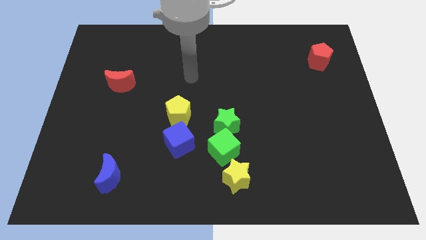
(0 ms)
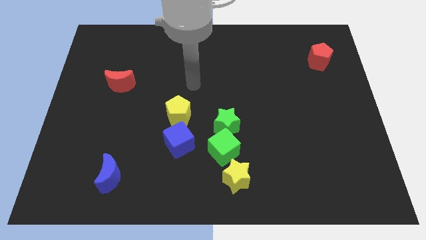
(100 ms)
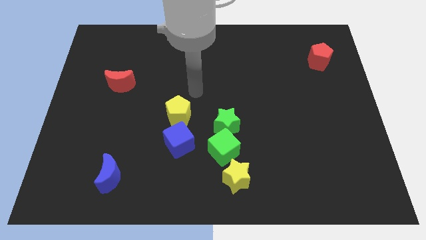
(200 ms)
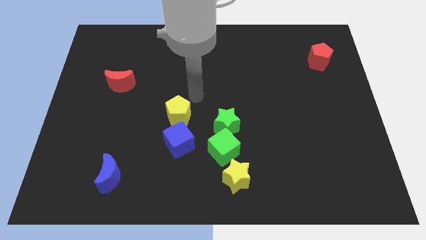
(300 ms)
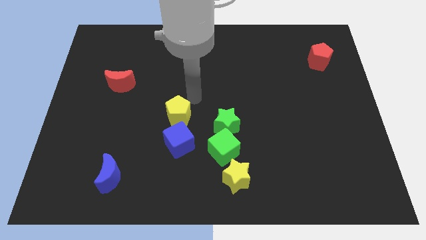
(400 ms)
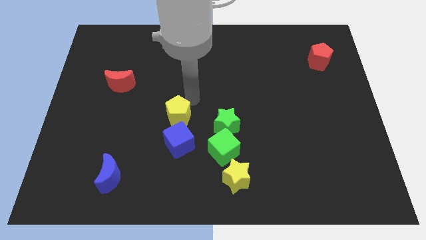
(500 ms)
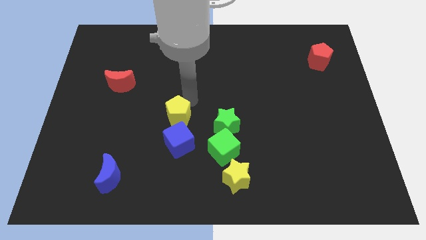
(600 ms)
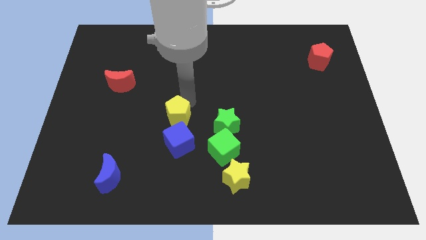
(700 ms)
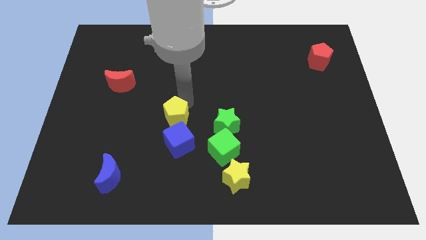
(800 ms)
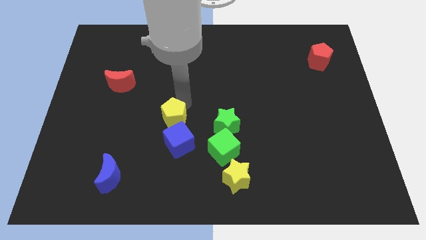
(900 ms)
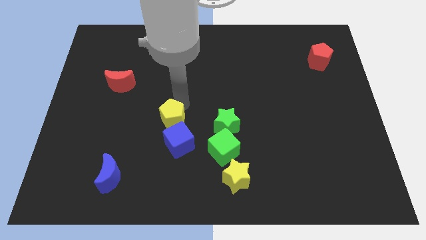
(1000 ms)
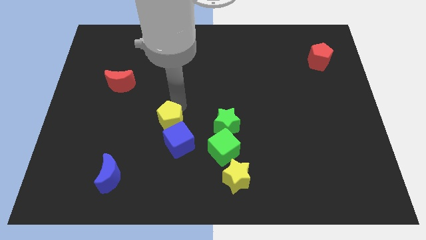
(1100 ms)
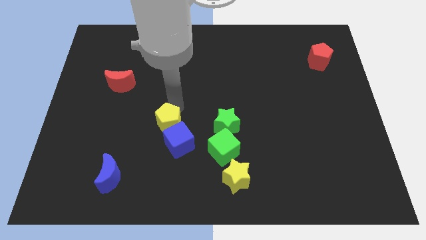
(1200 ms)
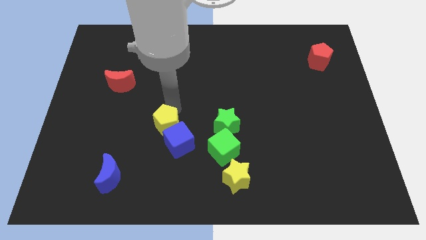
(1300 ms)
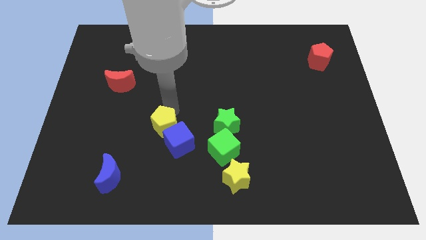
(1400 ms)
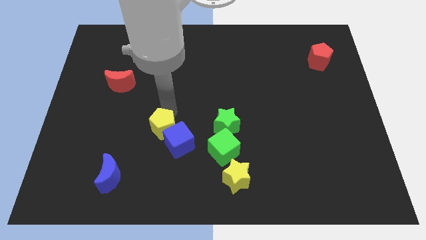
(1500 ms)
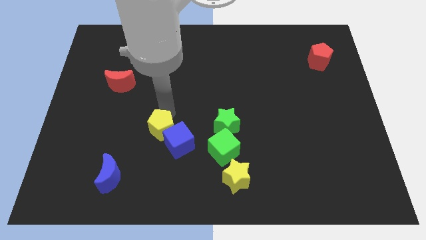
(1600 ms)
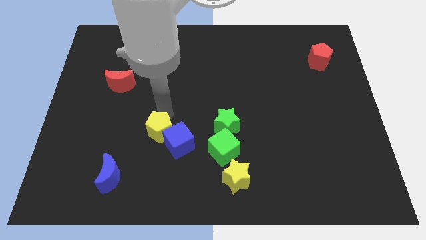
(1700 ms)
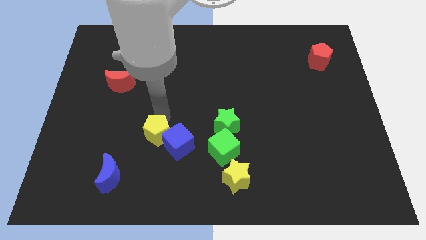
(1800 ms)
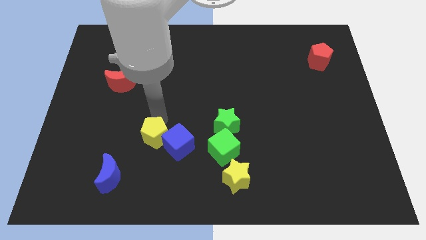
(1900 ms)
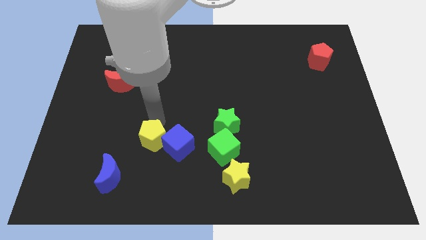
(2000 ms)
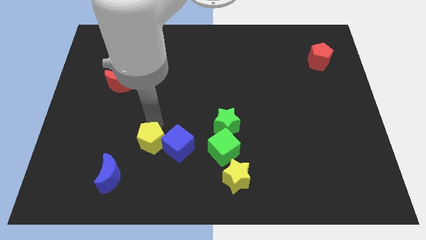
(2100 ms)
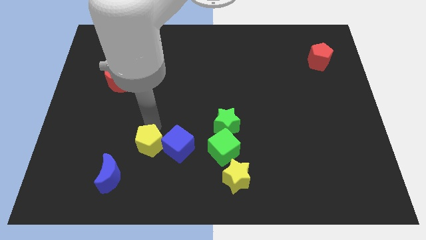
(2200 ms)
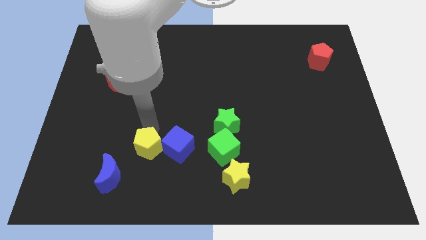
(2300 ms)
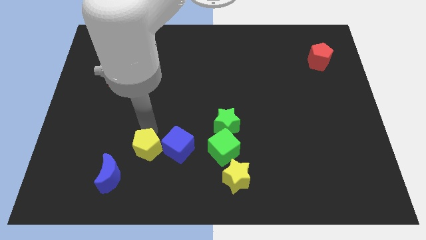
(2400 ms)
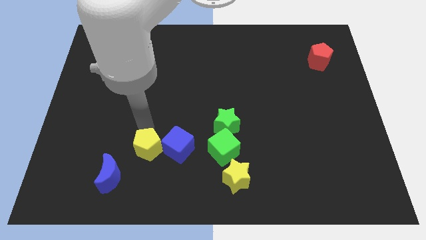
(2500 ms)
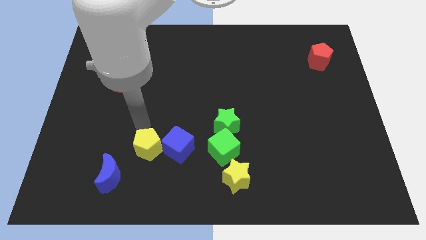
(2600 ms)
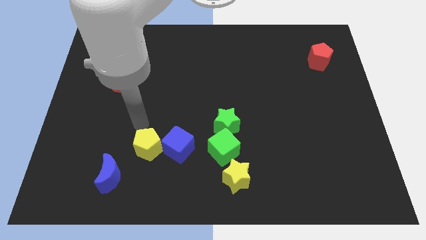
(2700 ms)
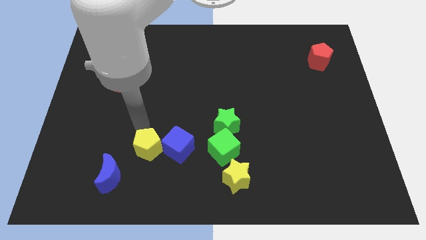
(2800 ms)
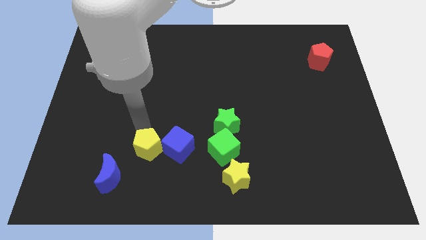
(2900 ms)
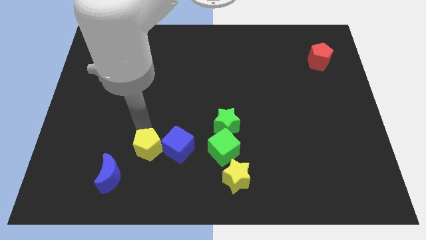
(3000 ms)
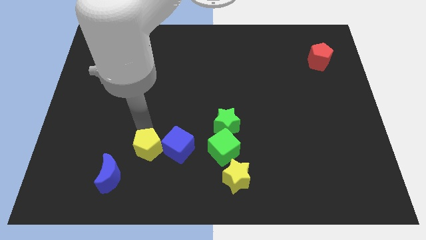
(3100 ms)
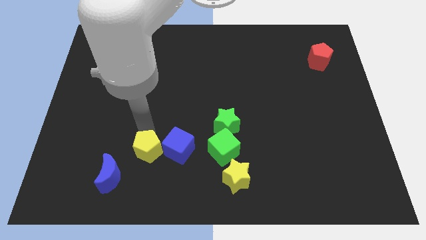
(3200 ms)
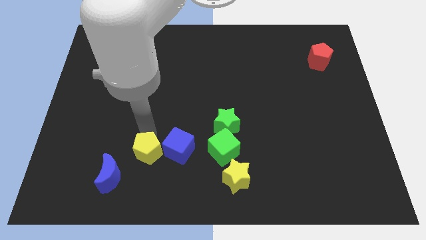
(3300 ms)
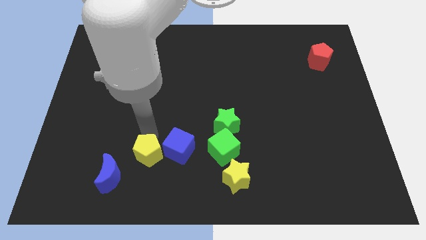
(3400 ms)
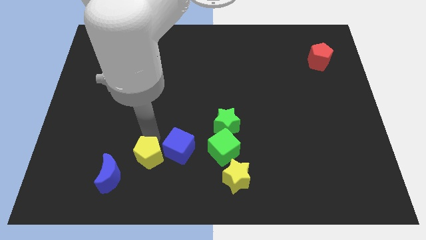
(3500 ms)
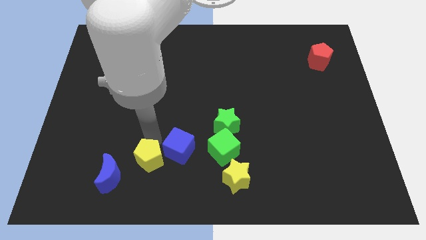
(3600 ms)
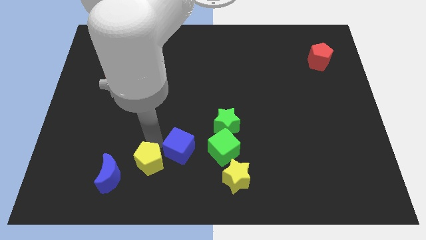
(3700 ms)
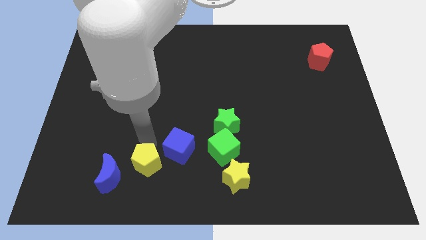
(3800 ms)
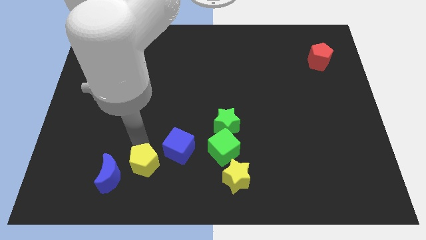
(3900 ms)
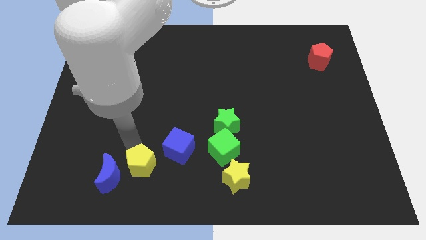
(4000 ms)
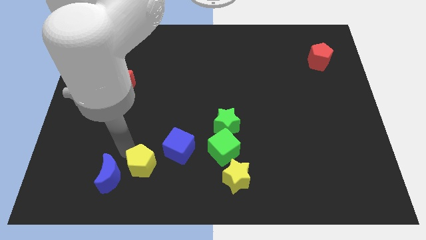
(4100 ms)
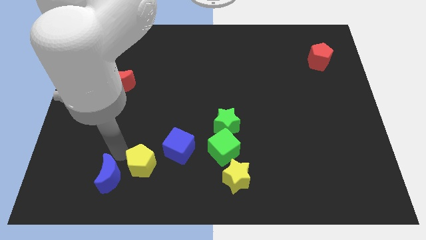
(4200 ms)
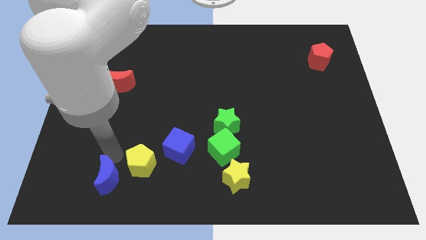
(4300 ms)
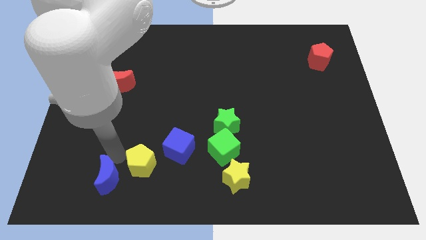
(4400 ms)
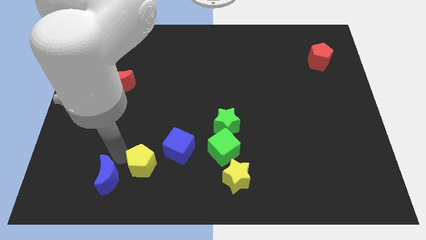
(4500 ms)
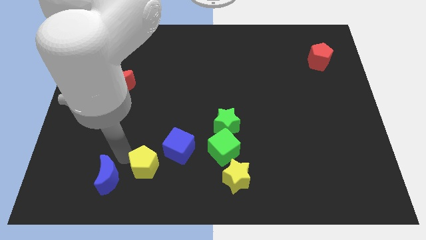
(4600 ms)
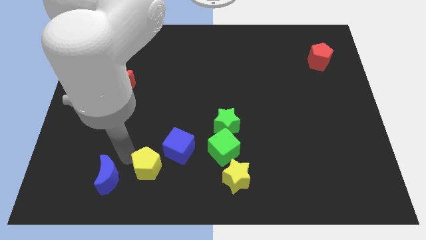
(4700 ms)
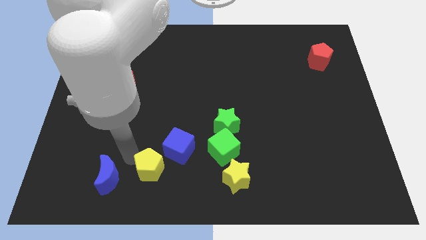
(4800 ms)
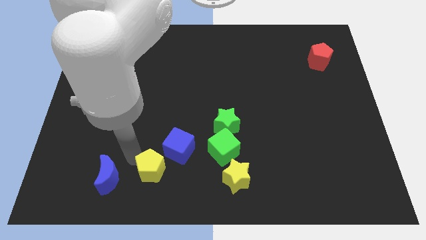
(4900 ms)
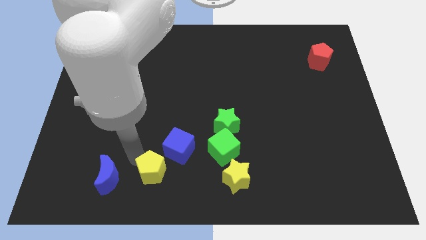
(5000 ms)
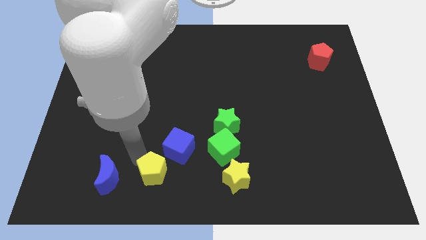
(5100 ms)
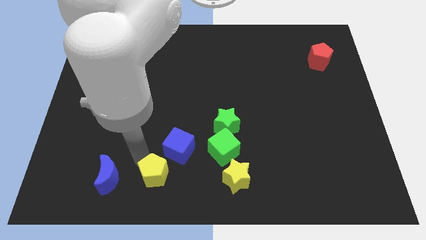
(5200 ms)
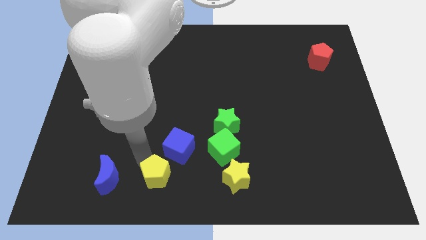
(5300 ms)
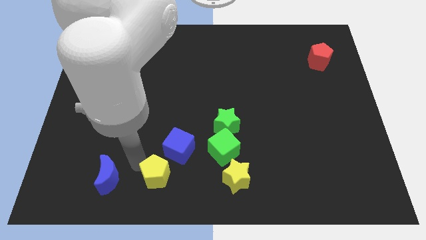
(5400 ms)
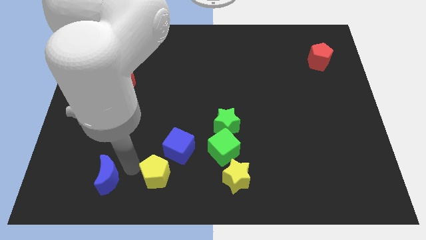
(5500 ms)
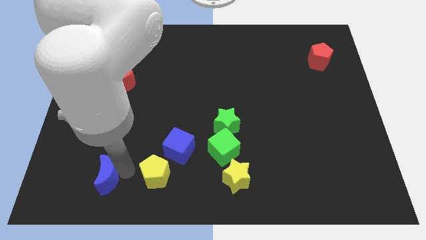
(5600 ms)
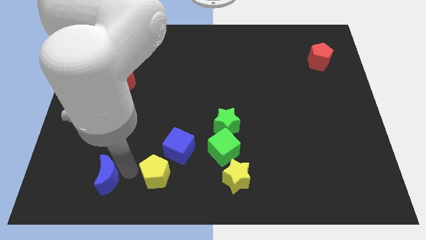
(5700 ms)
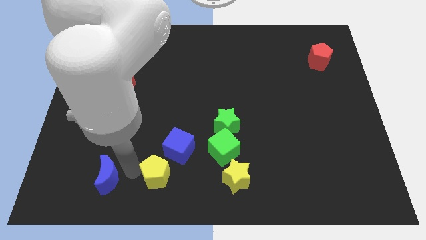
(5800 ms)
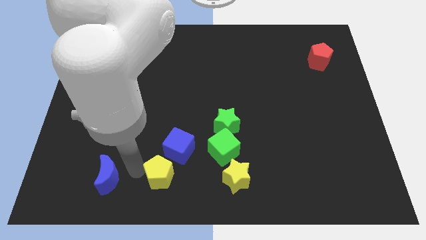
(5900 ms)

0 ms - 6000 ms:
move the yellow pentagon left of the yellow star
